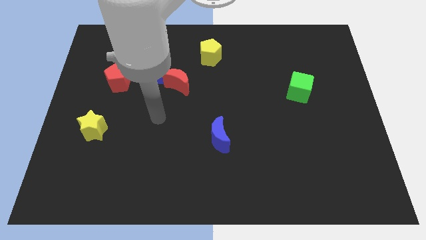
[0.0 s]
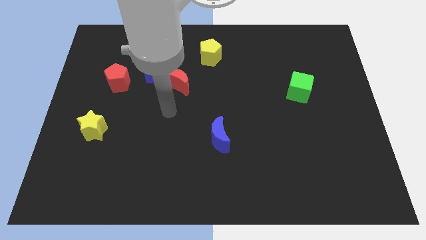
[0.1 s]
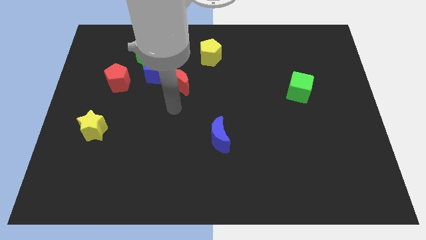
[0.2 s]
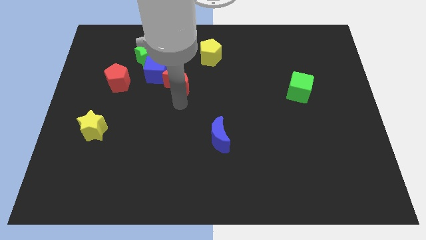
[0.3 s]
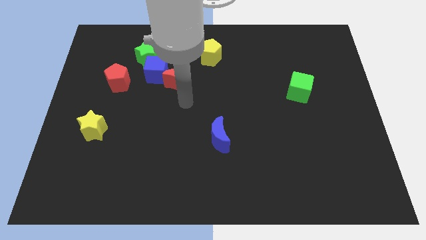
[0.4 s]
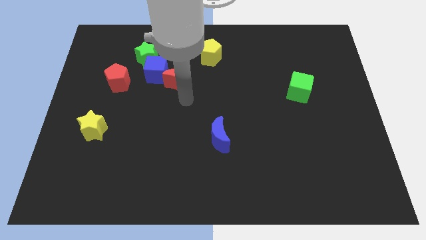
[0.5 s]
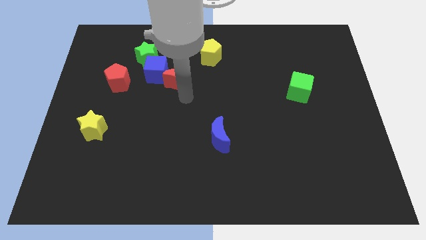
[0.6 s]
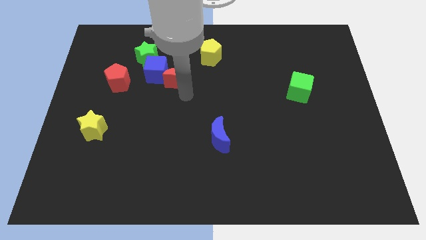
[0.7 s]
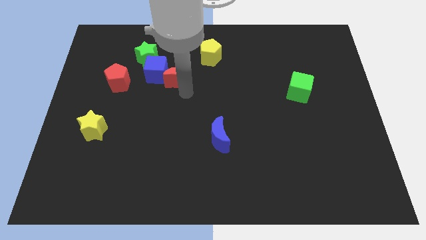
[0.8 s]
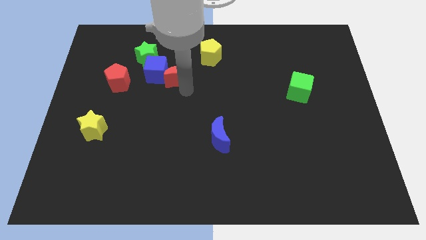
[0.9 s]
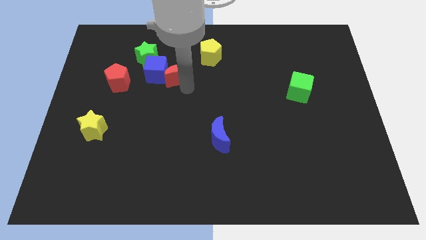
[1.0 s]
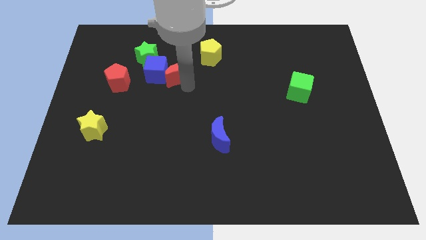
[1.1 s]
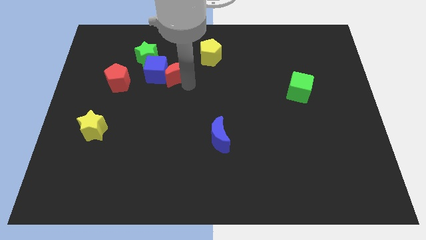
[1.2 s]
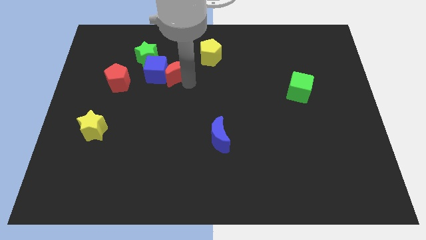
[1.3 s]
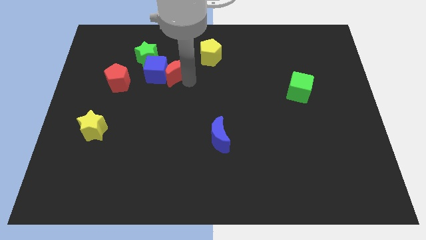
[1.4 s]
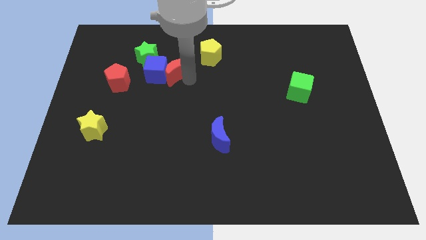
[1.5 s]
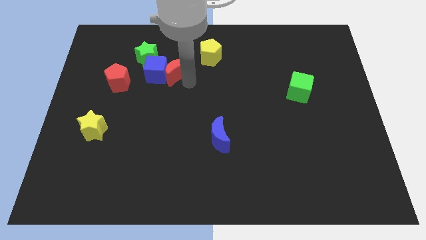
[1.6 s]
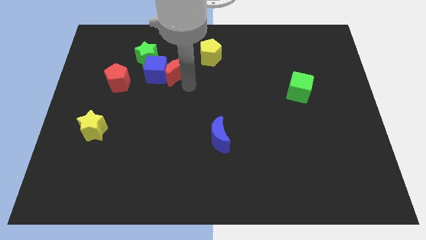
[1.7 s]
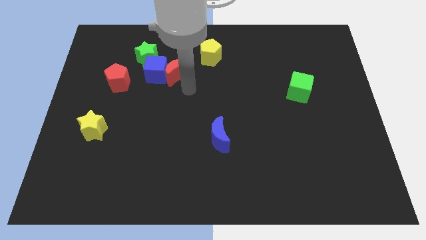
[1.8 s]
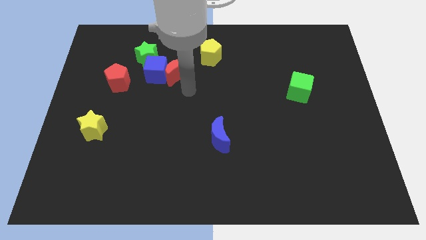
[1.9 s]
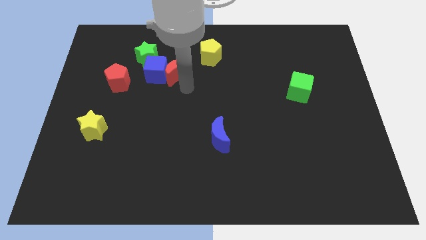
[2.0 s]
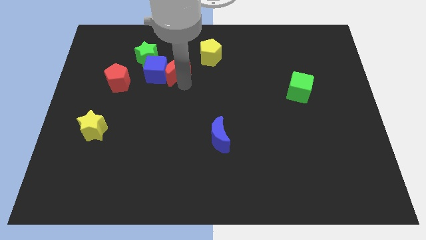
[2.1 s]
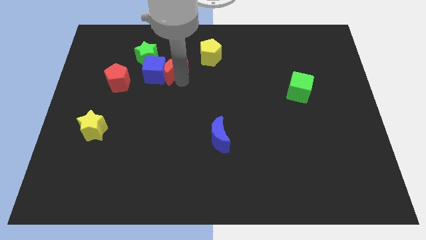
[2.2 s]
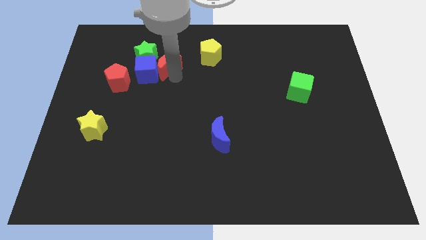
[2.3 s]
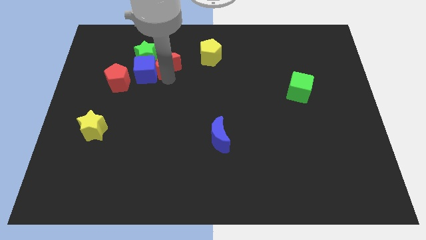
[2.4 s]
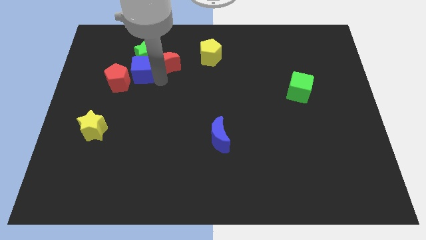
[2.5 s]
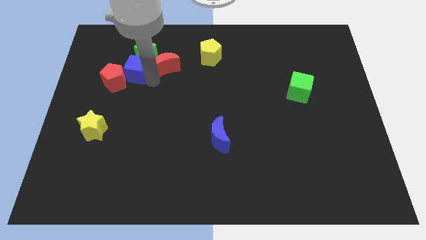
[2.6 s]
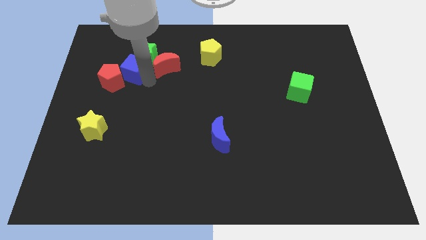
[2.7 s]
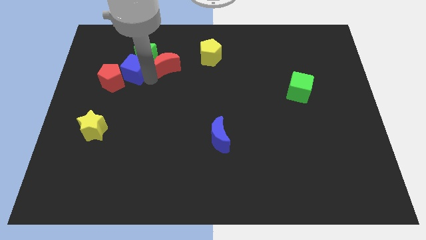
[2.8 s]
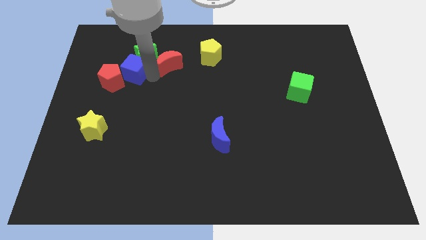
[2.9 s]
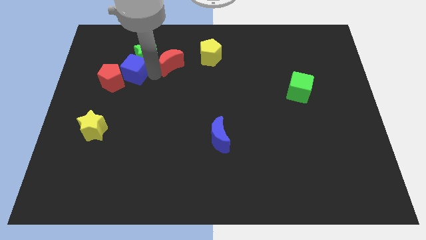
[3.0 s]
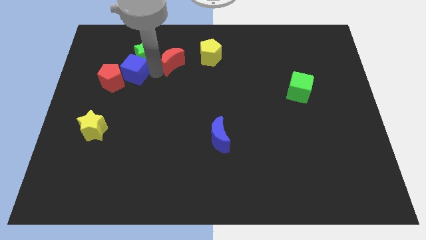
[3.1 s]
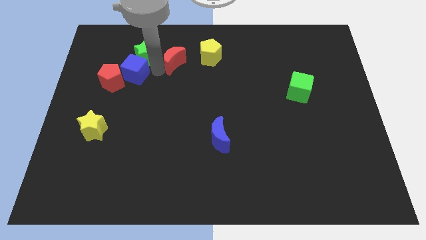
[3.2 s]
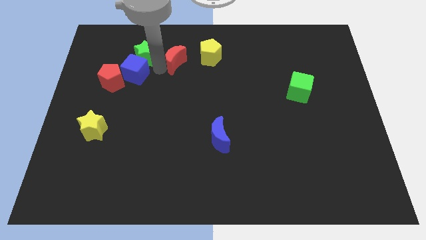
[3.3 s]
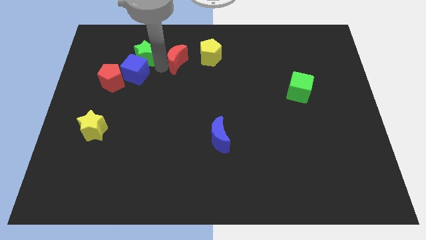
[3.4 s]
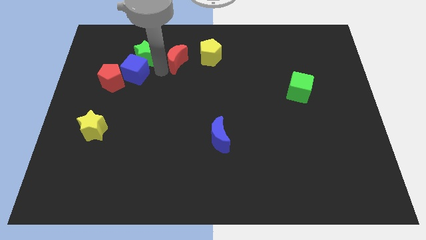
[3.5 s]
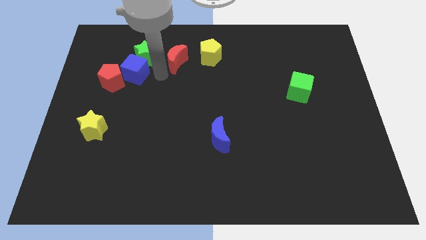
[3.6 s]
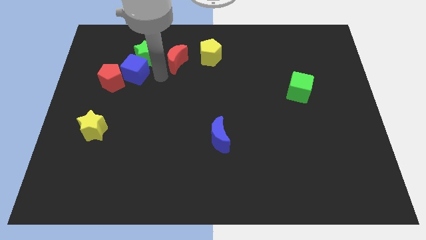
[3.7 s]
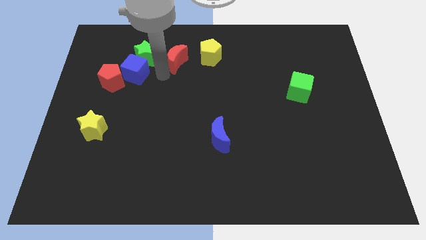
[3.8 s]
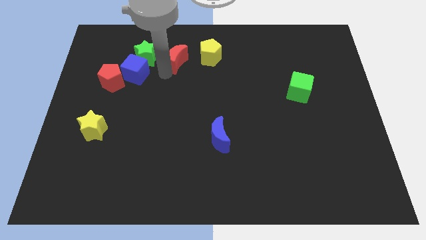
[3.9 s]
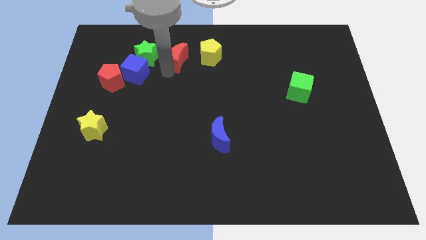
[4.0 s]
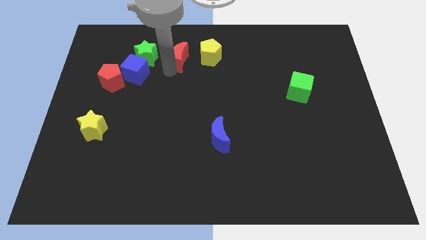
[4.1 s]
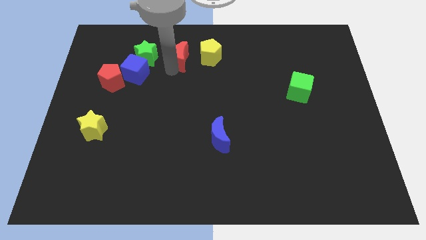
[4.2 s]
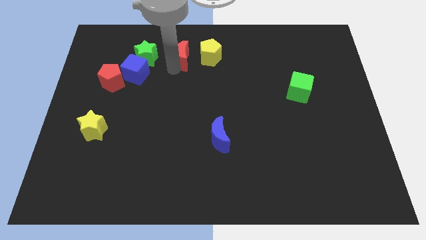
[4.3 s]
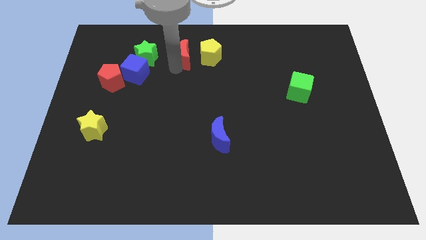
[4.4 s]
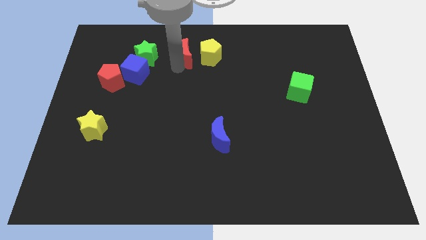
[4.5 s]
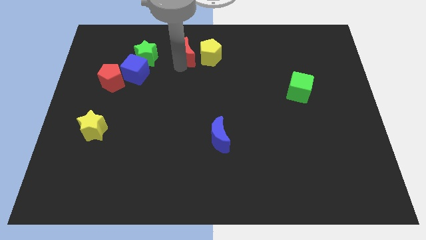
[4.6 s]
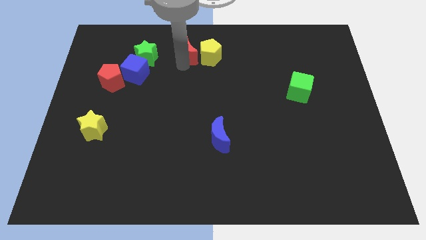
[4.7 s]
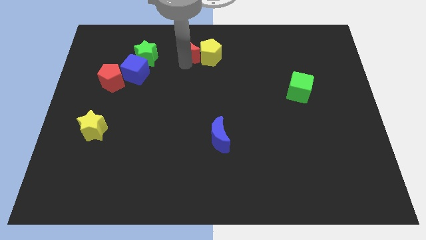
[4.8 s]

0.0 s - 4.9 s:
put the red moon to the top side

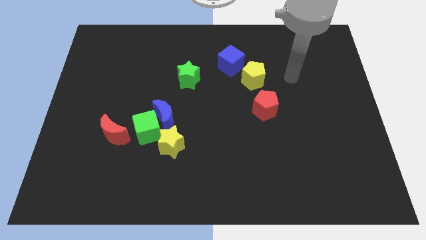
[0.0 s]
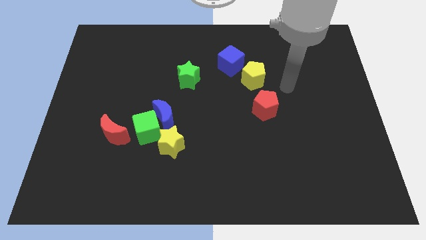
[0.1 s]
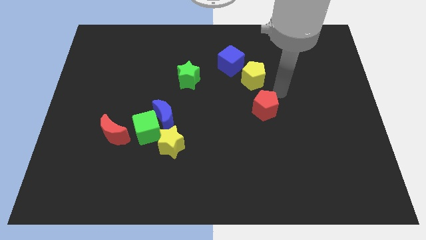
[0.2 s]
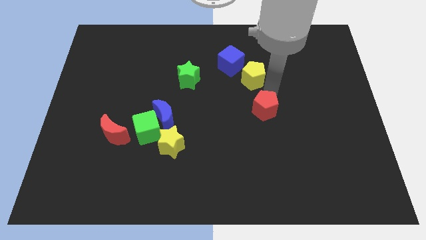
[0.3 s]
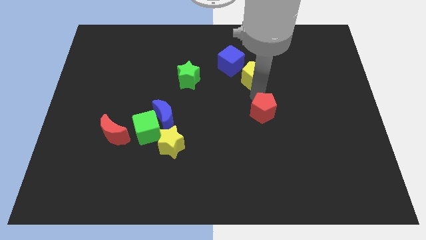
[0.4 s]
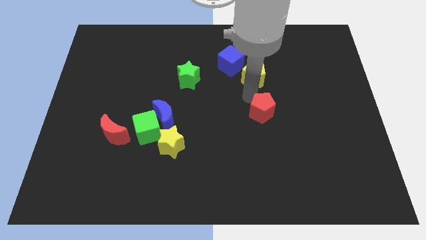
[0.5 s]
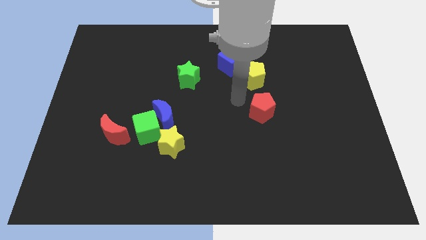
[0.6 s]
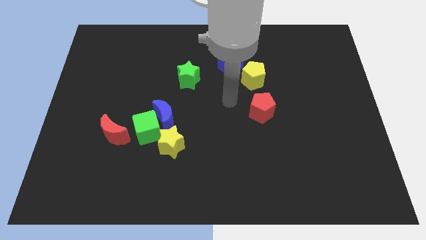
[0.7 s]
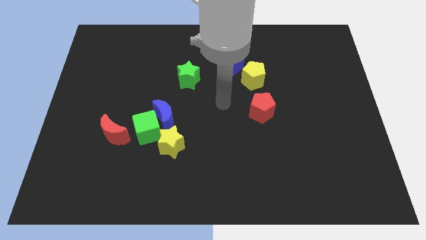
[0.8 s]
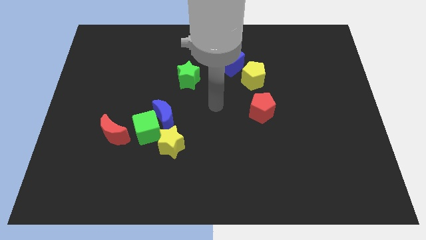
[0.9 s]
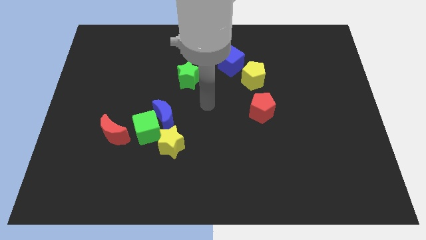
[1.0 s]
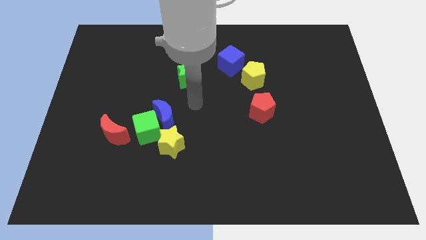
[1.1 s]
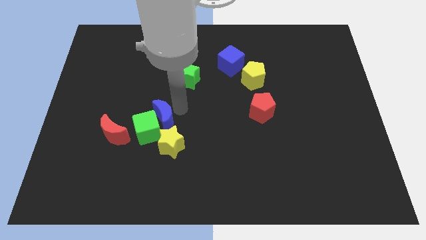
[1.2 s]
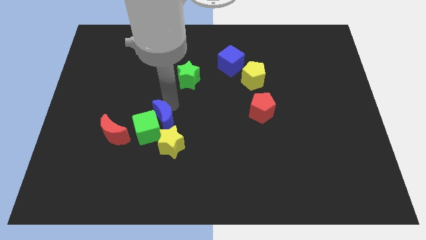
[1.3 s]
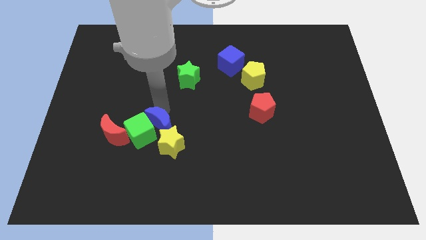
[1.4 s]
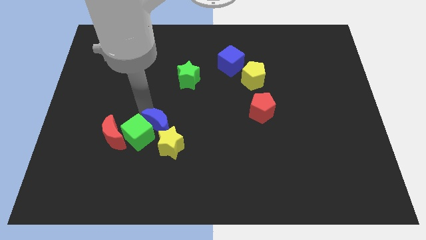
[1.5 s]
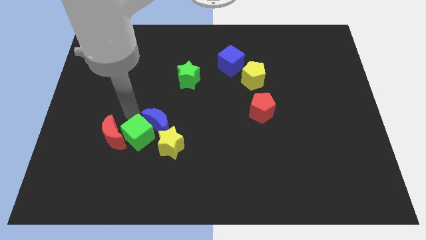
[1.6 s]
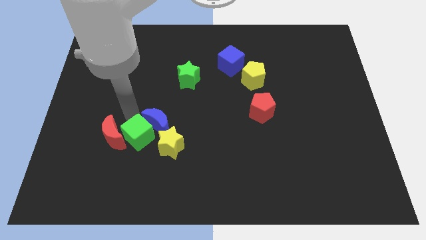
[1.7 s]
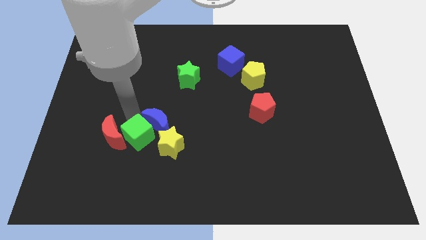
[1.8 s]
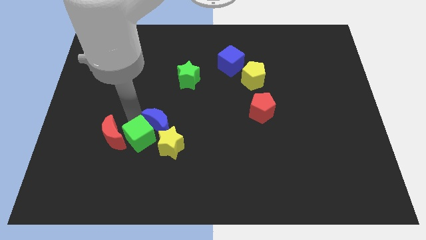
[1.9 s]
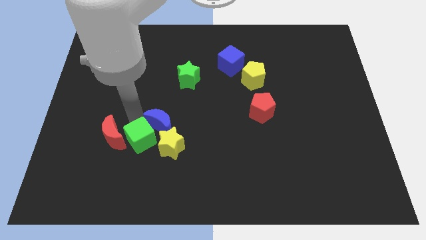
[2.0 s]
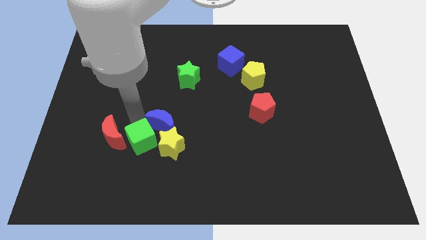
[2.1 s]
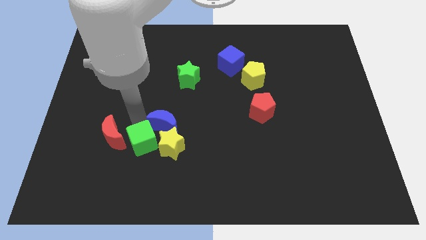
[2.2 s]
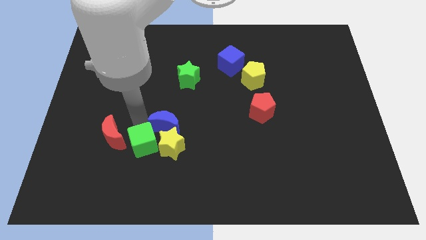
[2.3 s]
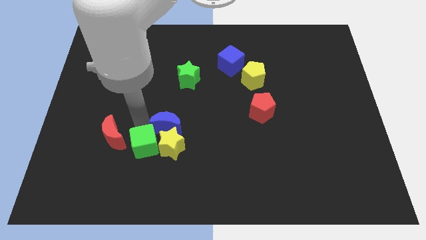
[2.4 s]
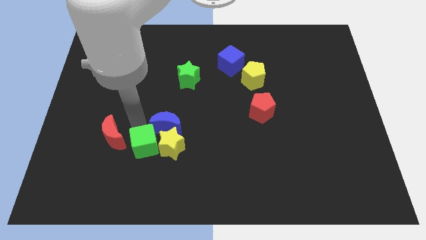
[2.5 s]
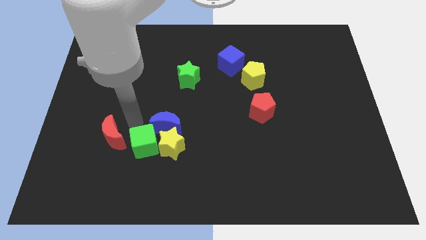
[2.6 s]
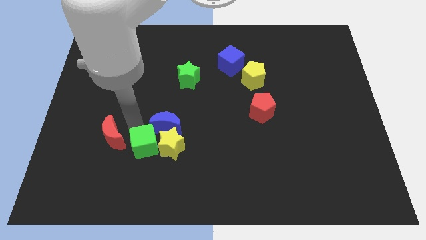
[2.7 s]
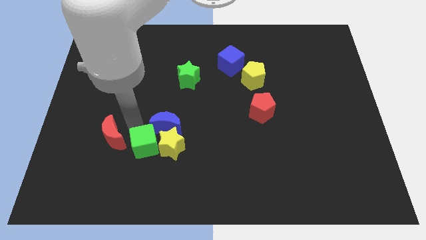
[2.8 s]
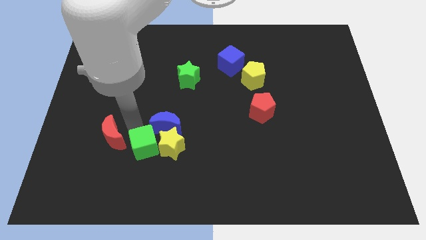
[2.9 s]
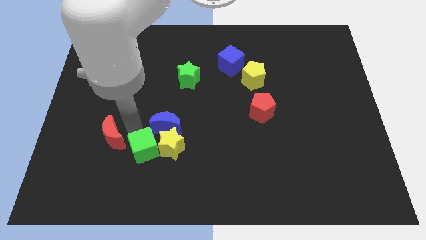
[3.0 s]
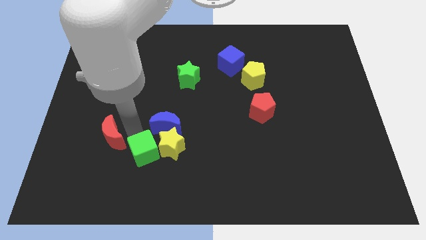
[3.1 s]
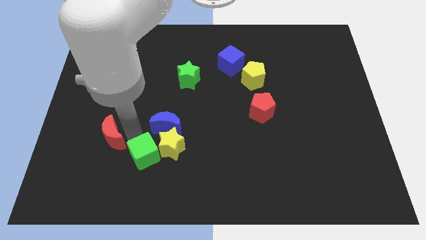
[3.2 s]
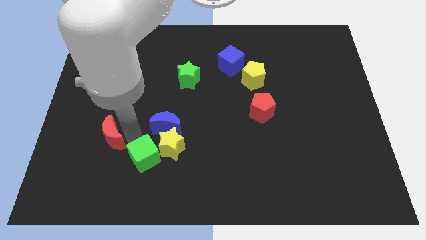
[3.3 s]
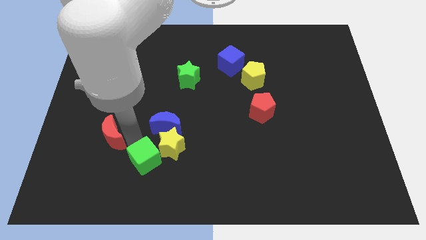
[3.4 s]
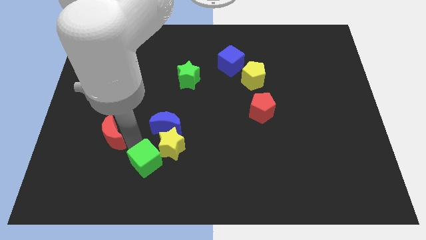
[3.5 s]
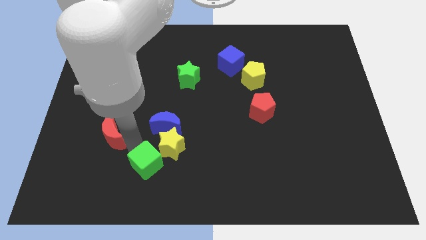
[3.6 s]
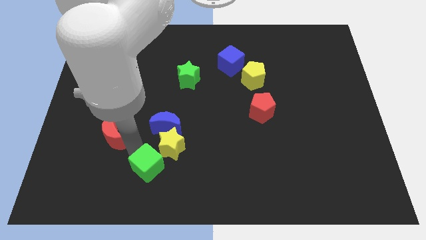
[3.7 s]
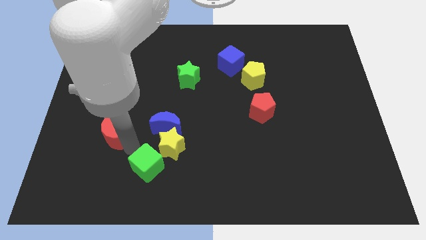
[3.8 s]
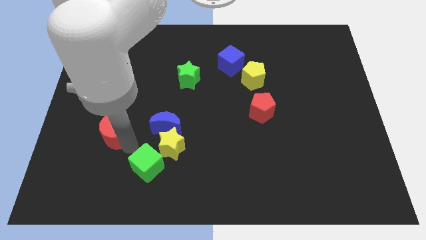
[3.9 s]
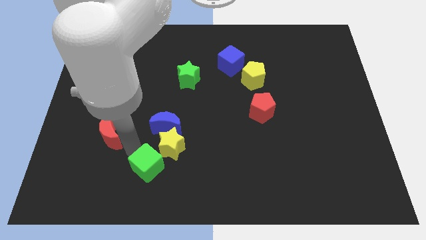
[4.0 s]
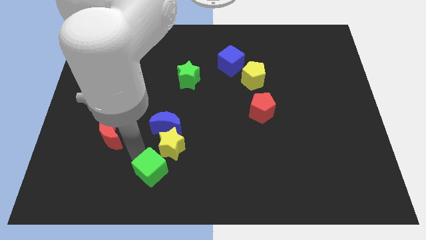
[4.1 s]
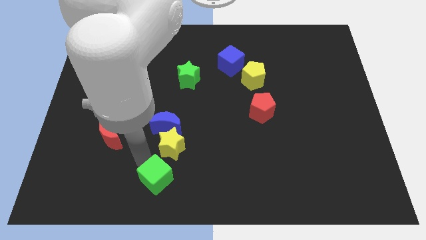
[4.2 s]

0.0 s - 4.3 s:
push the green cube to the bottom side
